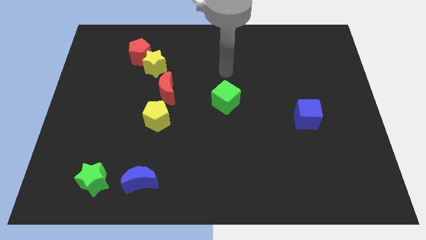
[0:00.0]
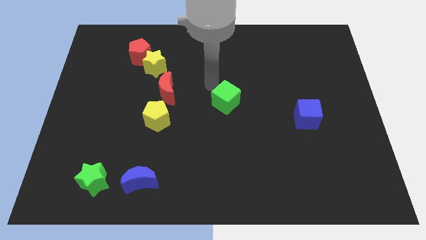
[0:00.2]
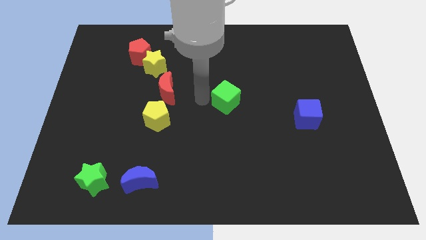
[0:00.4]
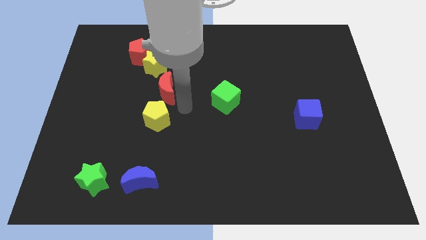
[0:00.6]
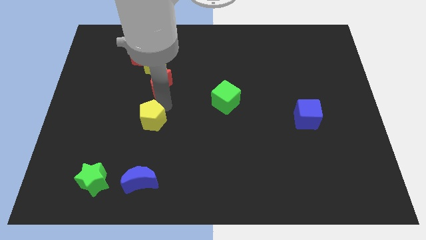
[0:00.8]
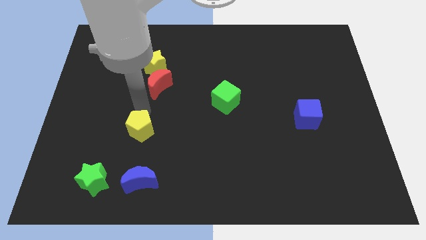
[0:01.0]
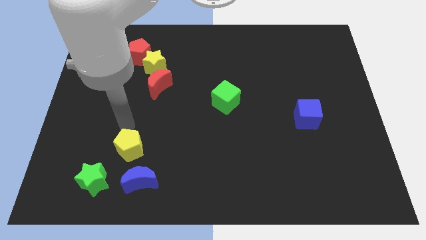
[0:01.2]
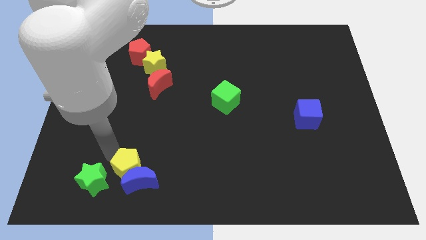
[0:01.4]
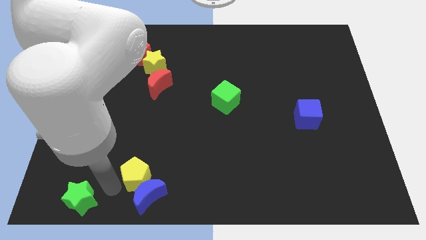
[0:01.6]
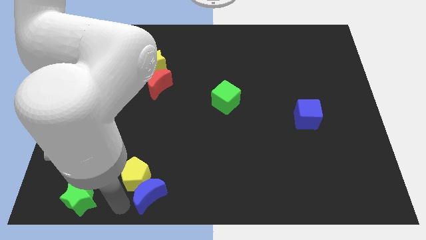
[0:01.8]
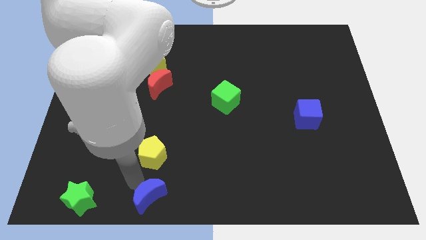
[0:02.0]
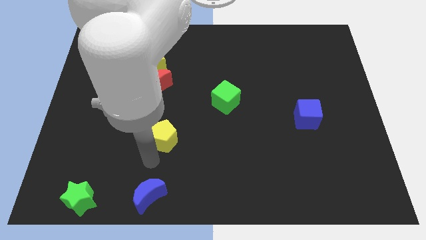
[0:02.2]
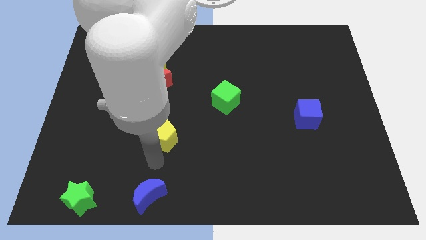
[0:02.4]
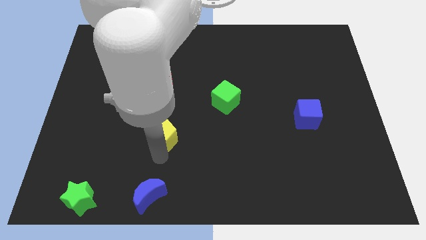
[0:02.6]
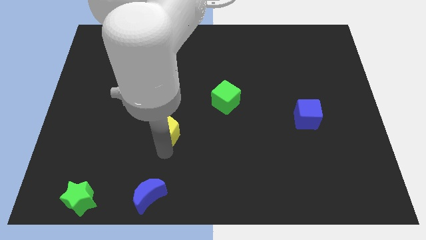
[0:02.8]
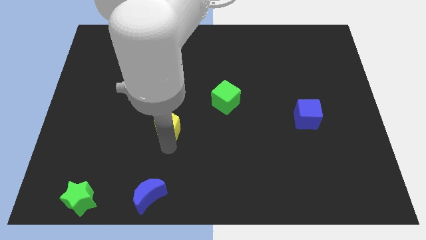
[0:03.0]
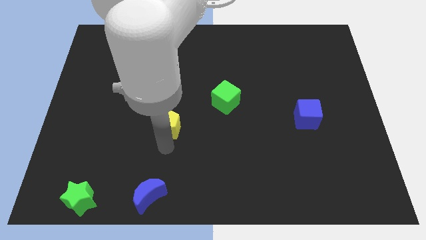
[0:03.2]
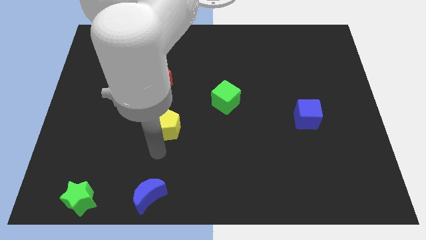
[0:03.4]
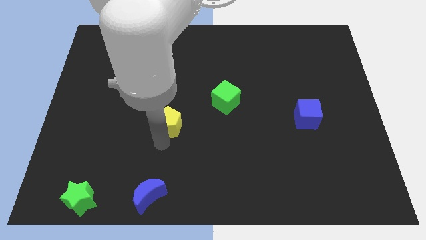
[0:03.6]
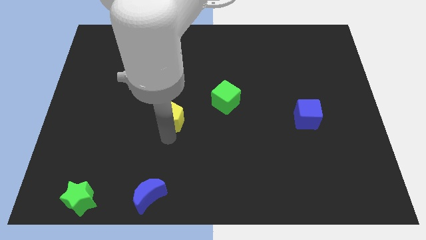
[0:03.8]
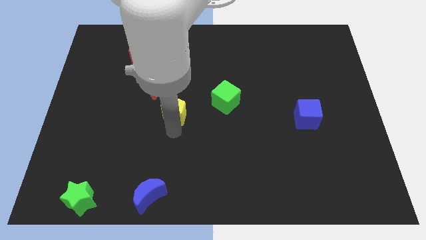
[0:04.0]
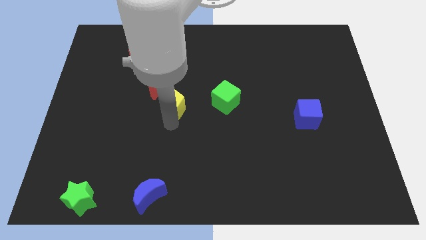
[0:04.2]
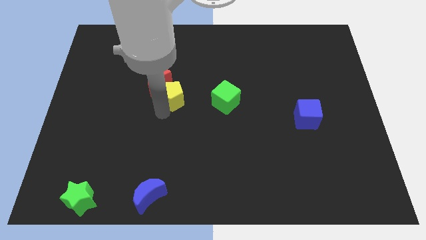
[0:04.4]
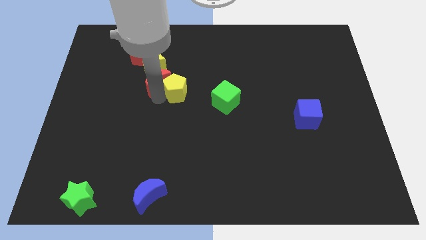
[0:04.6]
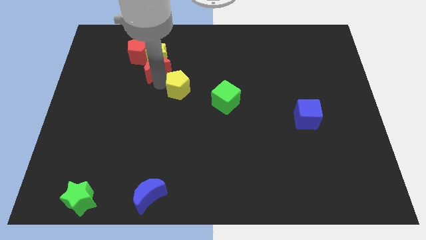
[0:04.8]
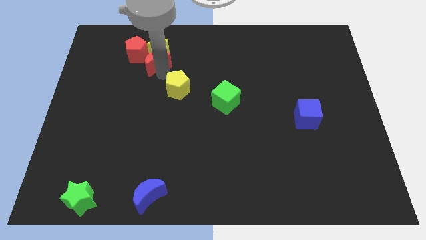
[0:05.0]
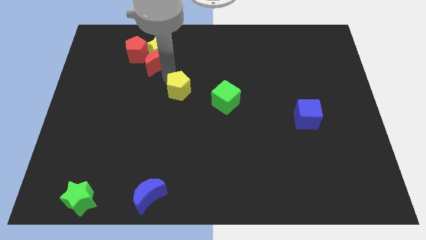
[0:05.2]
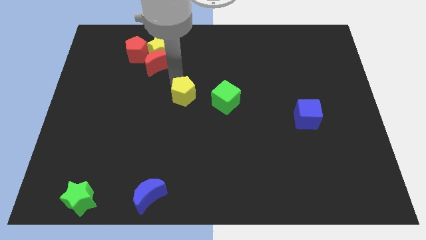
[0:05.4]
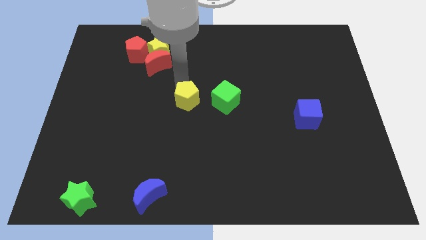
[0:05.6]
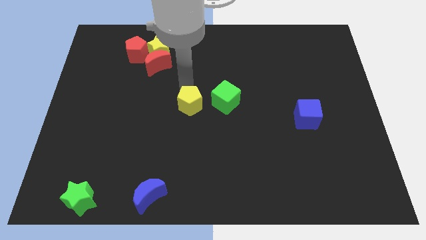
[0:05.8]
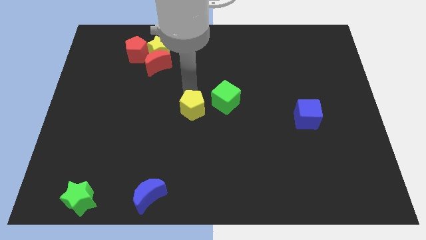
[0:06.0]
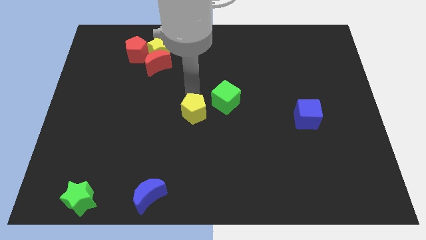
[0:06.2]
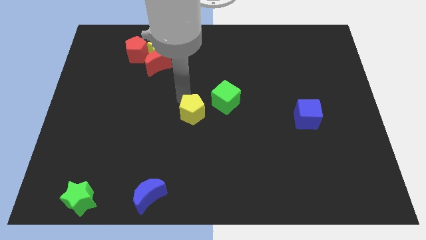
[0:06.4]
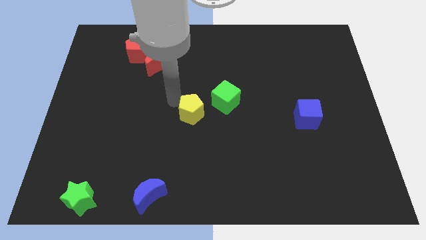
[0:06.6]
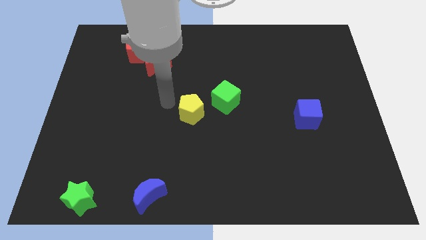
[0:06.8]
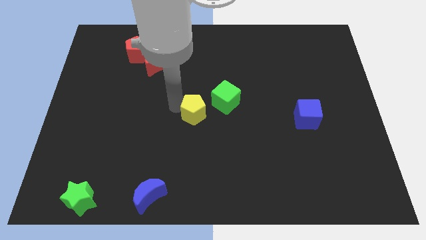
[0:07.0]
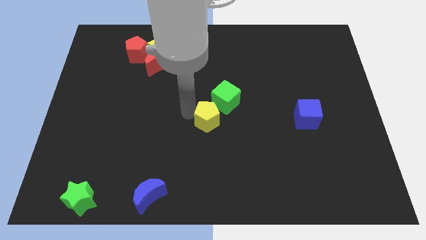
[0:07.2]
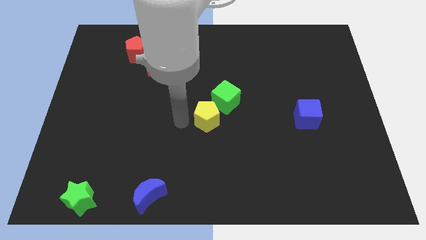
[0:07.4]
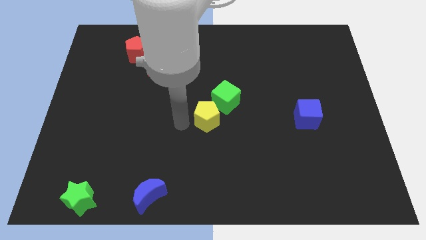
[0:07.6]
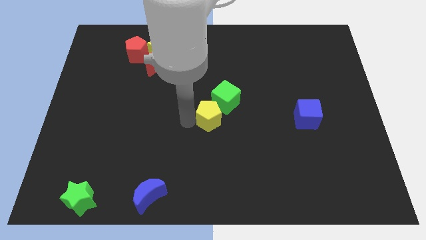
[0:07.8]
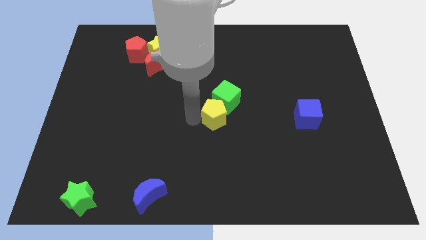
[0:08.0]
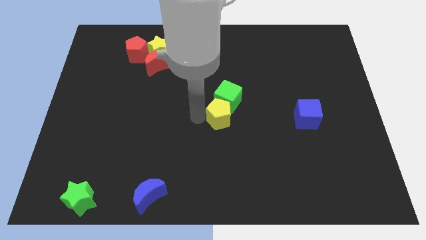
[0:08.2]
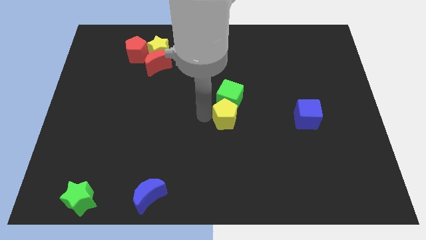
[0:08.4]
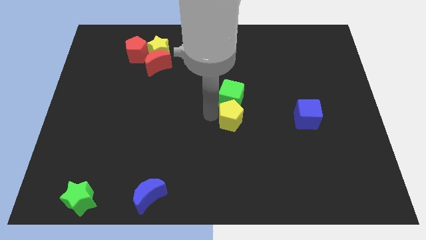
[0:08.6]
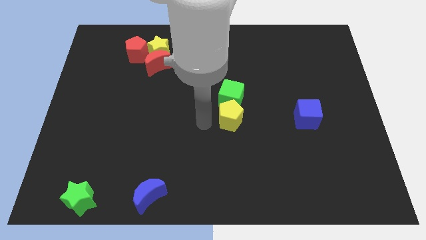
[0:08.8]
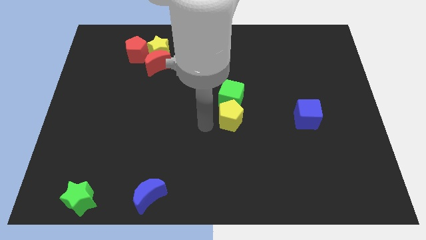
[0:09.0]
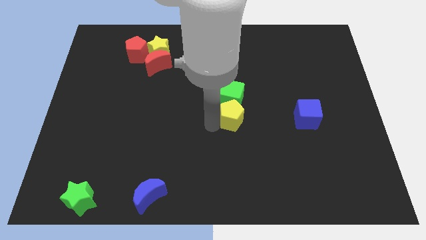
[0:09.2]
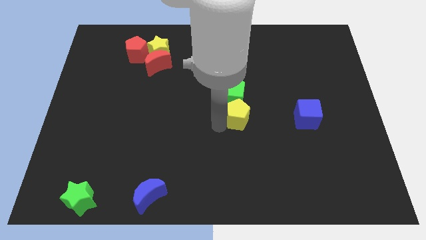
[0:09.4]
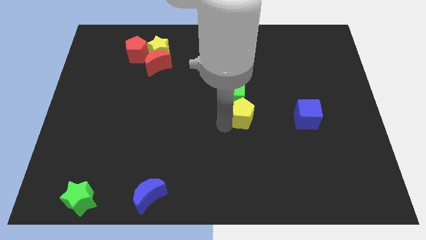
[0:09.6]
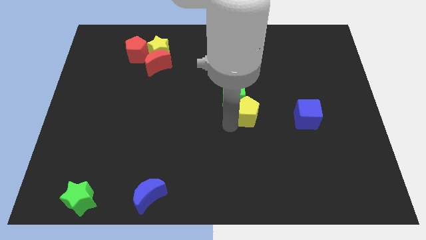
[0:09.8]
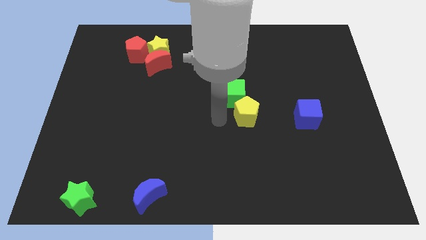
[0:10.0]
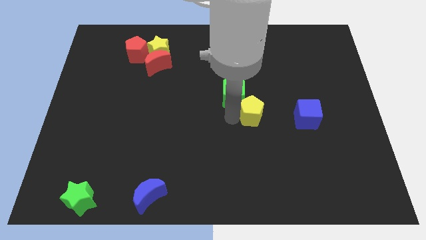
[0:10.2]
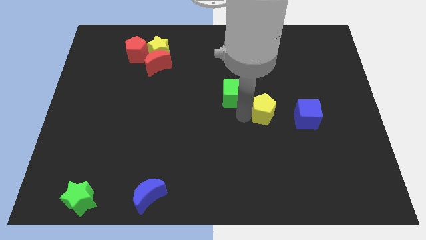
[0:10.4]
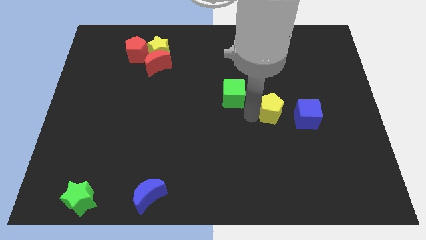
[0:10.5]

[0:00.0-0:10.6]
push the yellow pentagon to the top left of the blue cube

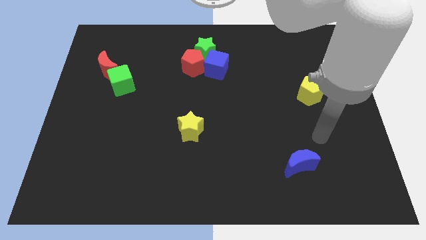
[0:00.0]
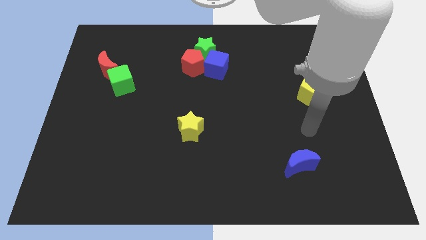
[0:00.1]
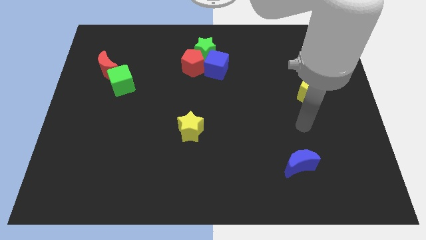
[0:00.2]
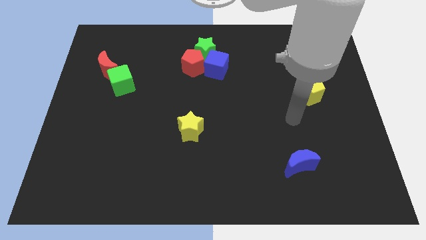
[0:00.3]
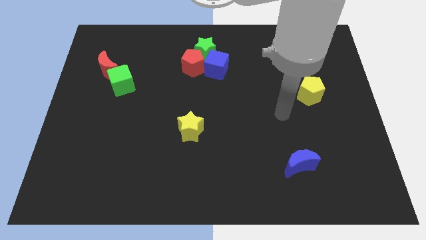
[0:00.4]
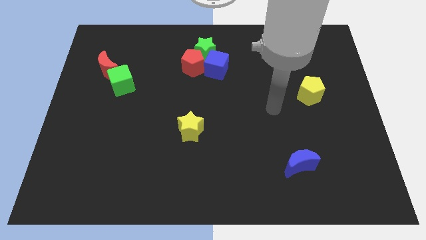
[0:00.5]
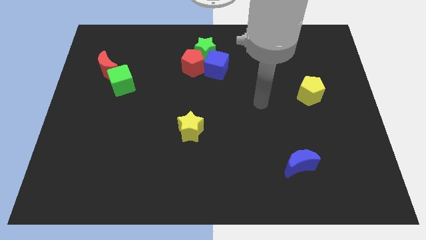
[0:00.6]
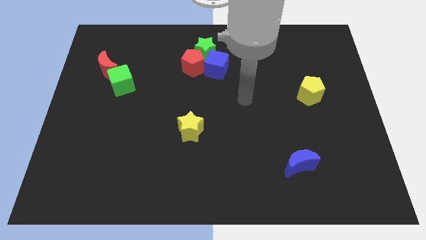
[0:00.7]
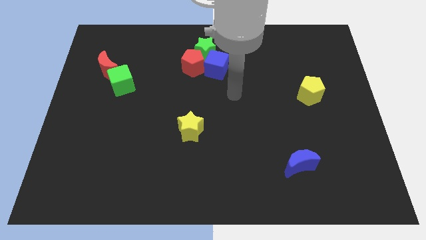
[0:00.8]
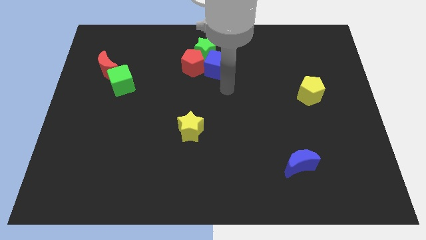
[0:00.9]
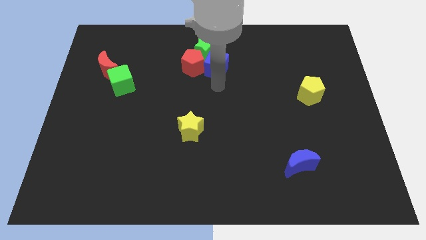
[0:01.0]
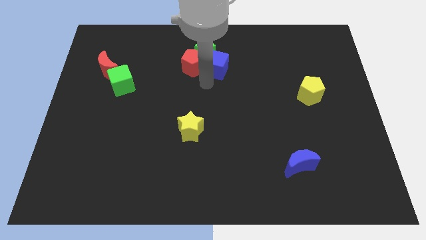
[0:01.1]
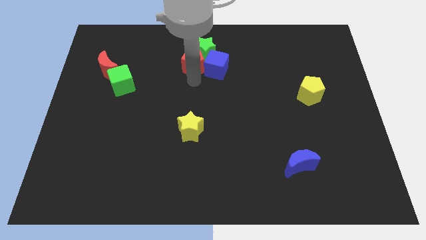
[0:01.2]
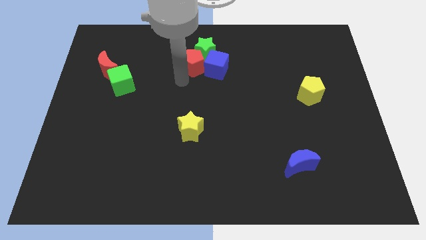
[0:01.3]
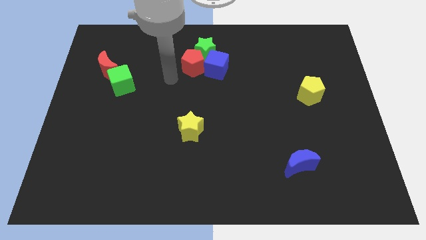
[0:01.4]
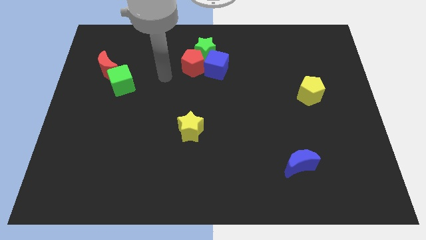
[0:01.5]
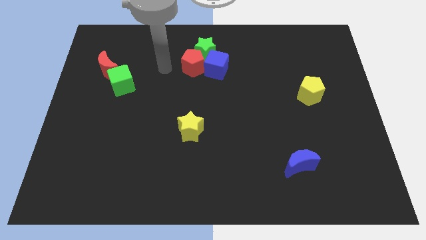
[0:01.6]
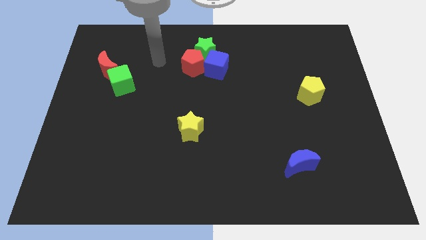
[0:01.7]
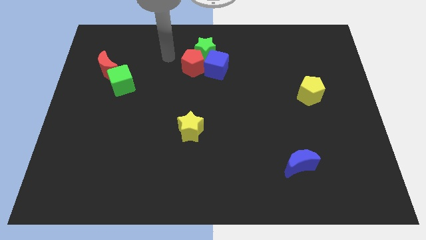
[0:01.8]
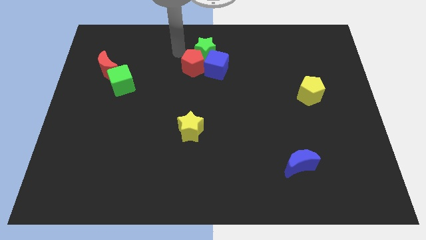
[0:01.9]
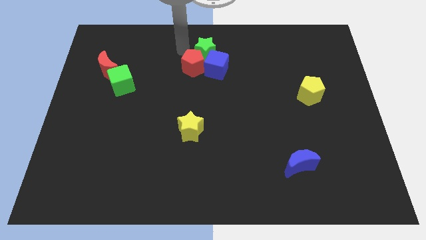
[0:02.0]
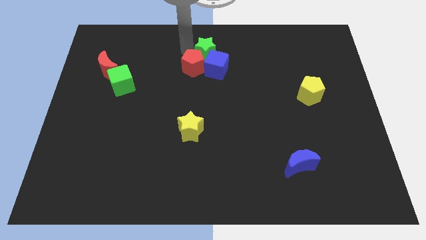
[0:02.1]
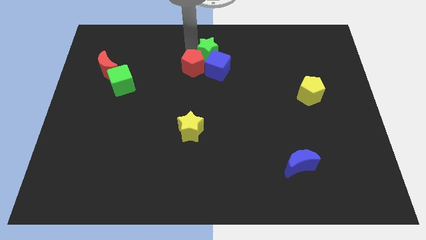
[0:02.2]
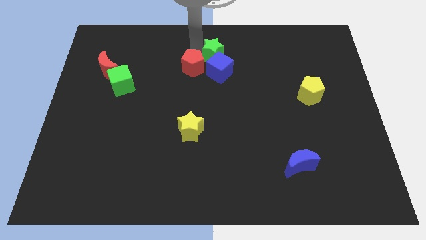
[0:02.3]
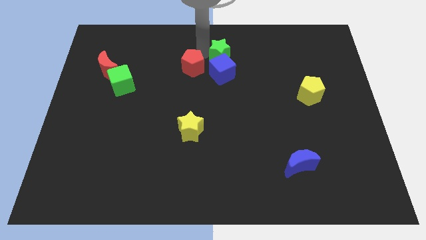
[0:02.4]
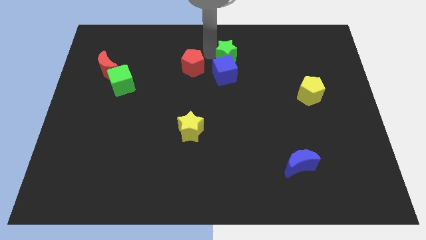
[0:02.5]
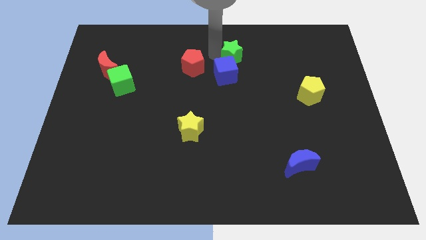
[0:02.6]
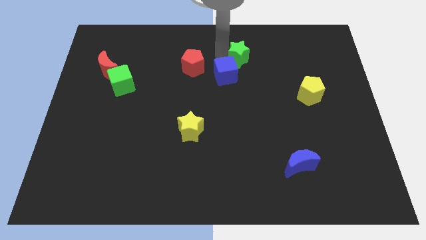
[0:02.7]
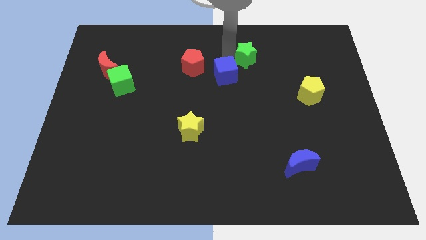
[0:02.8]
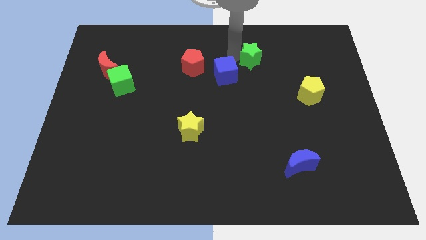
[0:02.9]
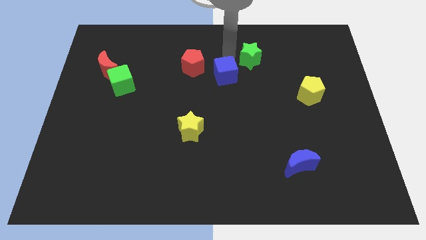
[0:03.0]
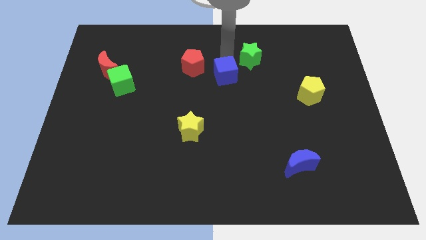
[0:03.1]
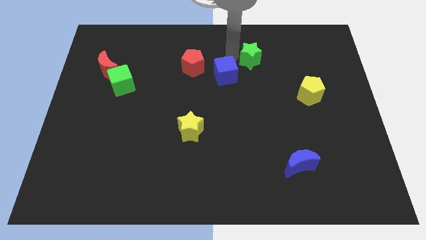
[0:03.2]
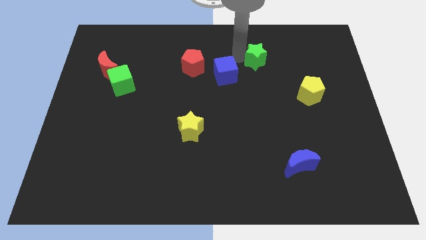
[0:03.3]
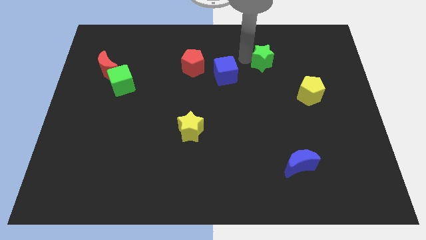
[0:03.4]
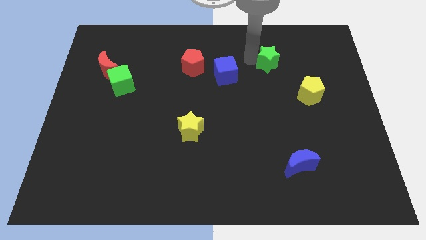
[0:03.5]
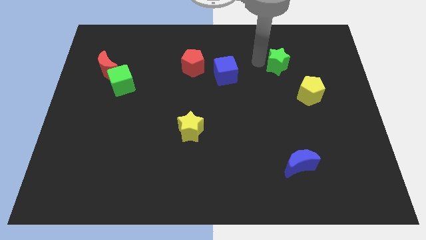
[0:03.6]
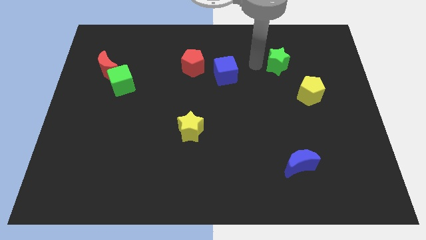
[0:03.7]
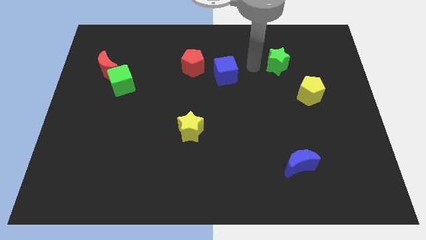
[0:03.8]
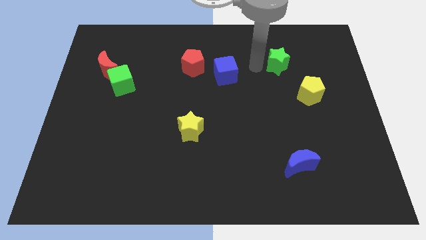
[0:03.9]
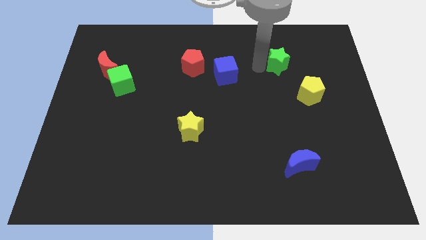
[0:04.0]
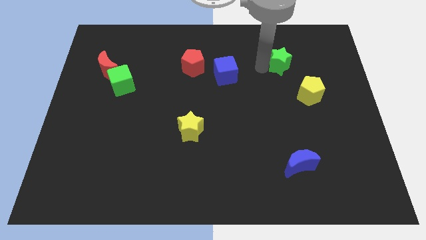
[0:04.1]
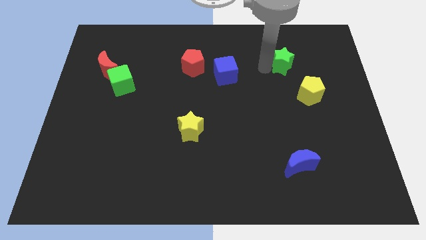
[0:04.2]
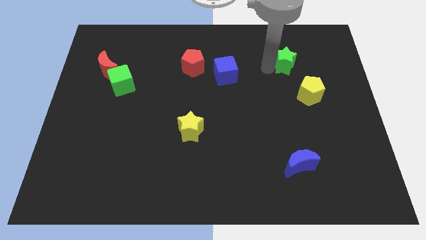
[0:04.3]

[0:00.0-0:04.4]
push the green star to the top side of the yellow pentagon
